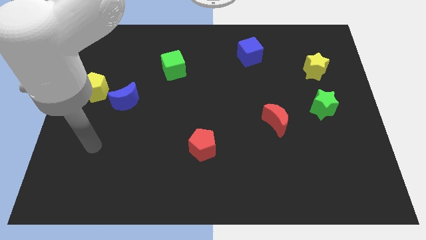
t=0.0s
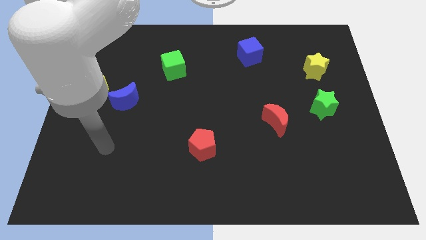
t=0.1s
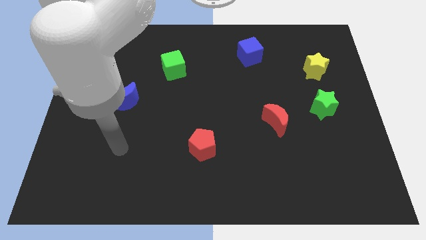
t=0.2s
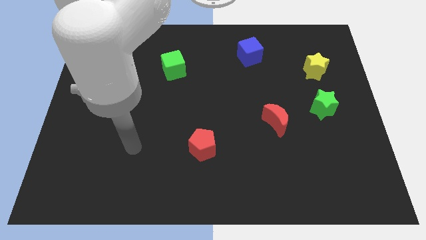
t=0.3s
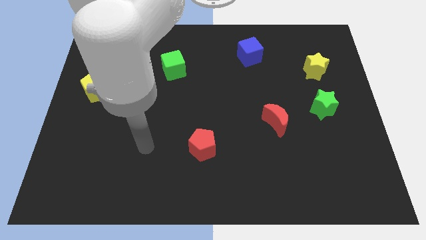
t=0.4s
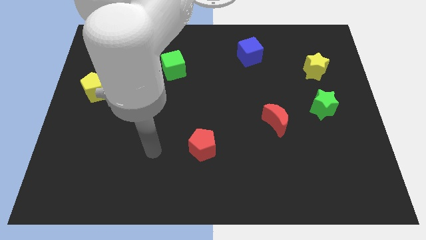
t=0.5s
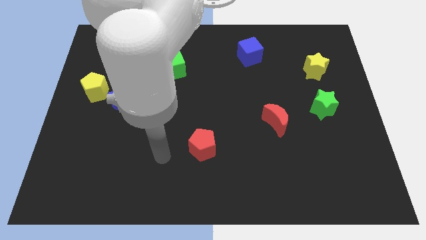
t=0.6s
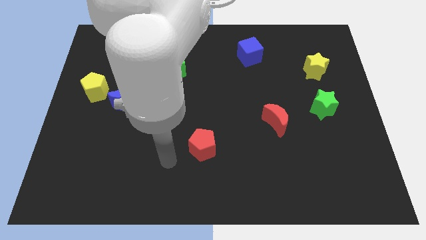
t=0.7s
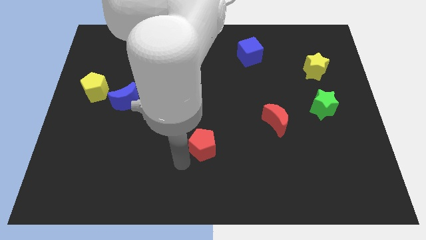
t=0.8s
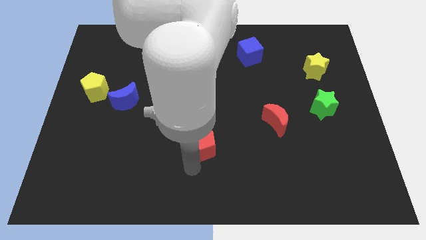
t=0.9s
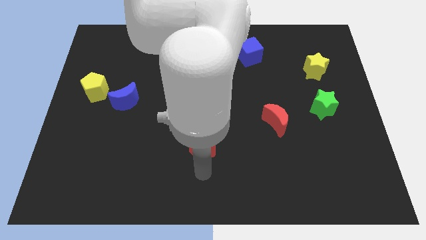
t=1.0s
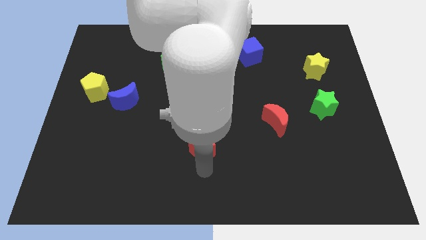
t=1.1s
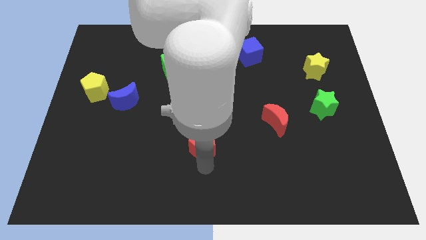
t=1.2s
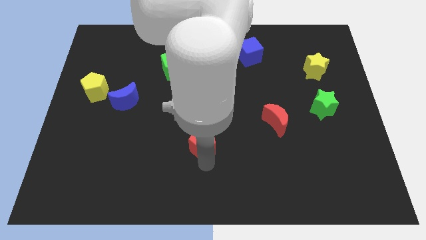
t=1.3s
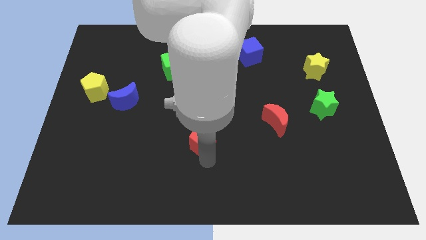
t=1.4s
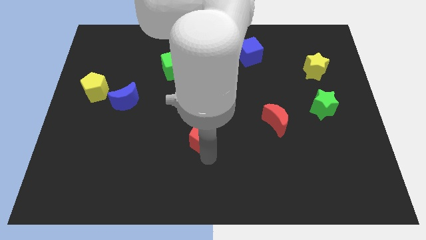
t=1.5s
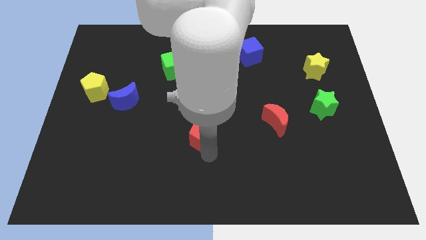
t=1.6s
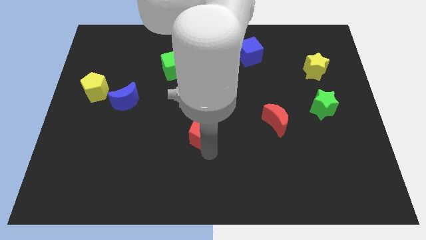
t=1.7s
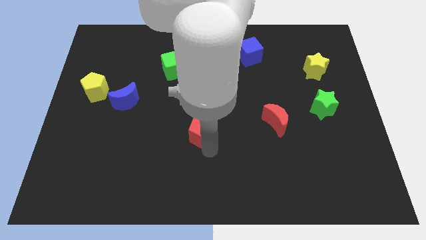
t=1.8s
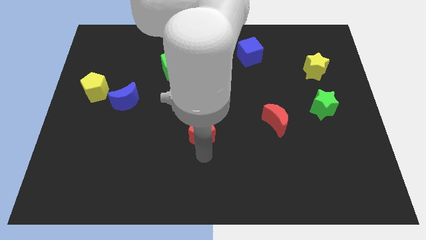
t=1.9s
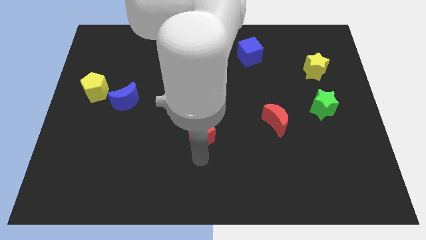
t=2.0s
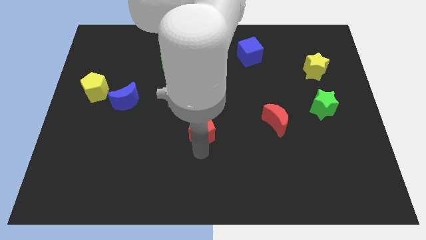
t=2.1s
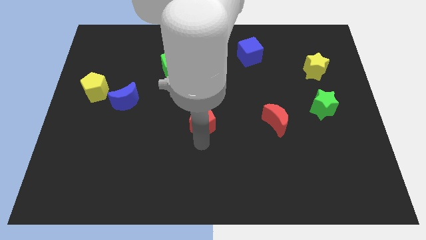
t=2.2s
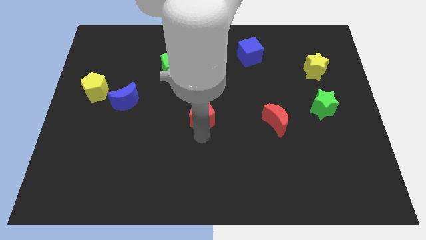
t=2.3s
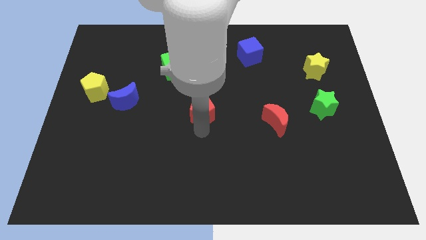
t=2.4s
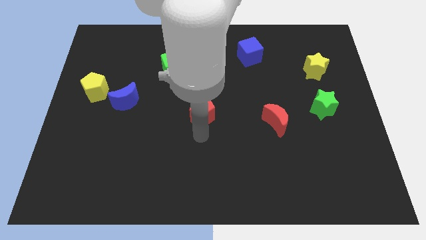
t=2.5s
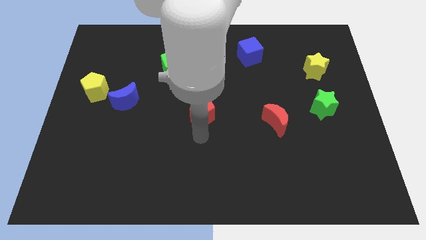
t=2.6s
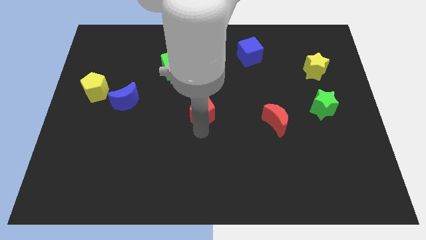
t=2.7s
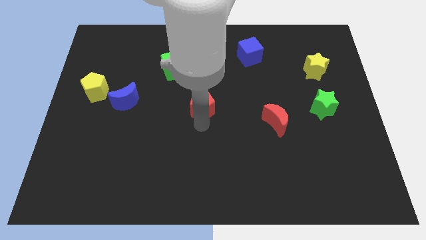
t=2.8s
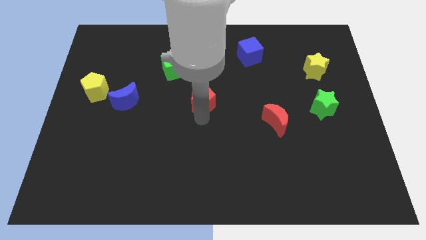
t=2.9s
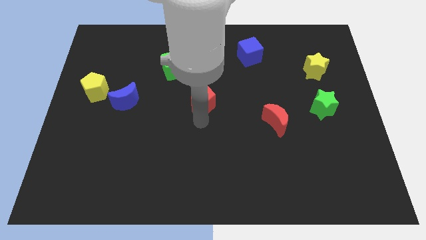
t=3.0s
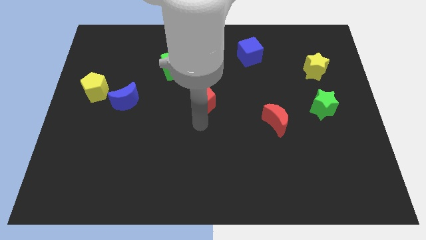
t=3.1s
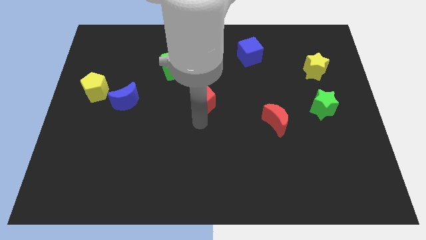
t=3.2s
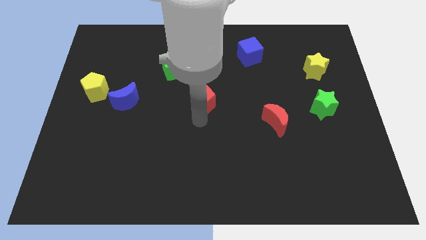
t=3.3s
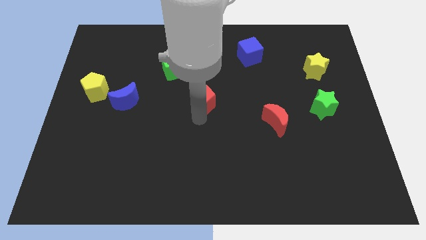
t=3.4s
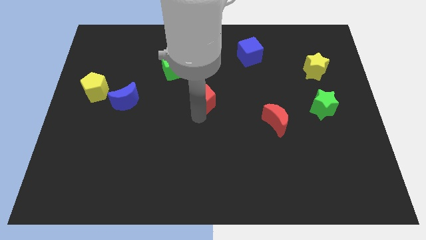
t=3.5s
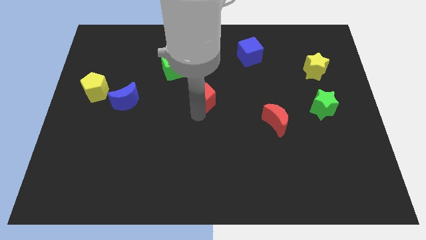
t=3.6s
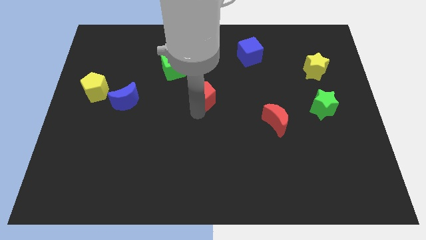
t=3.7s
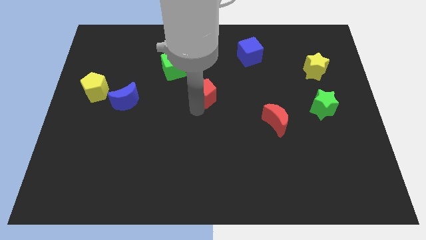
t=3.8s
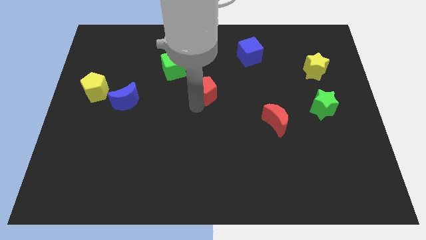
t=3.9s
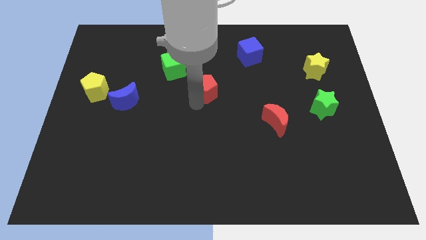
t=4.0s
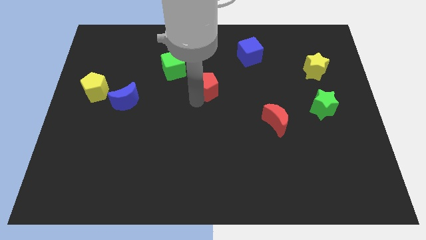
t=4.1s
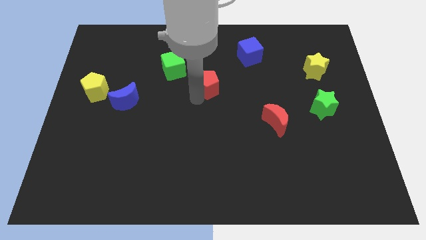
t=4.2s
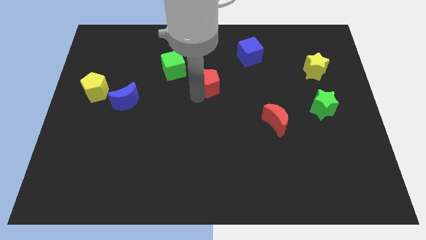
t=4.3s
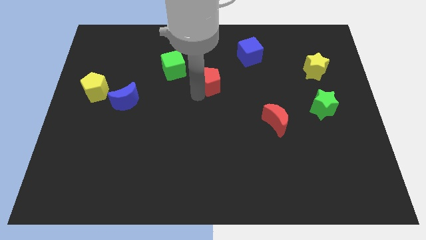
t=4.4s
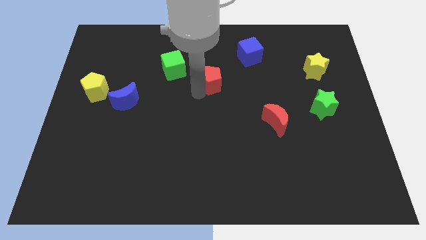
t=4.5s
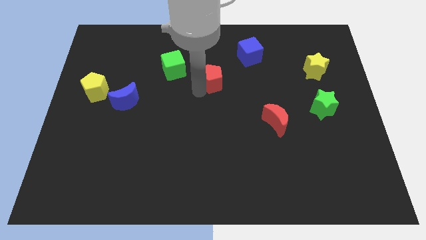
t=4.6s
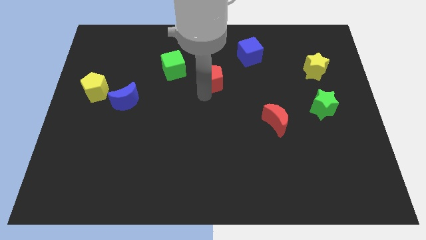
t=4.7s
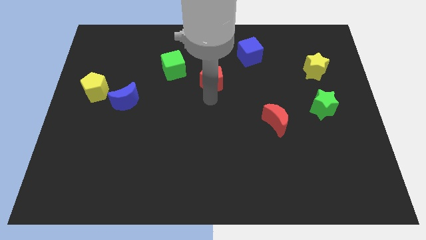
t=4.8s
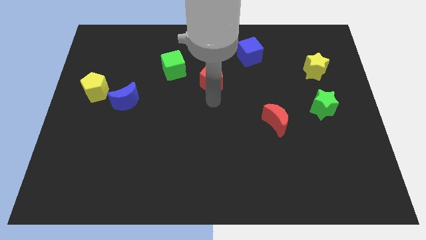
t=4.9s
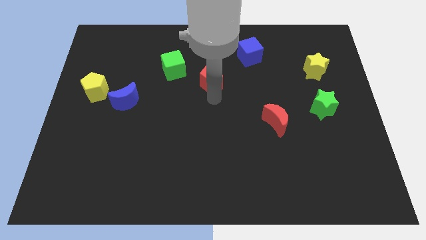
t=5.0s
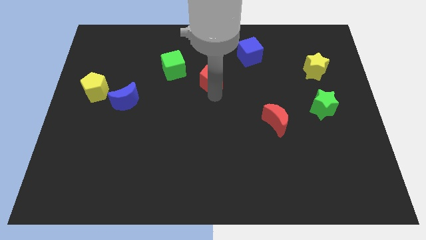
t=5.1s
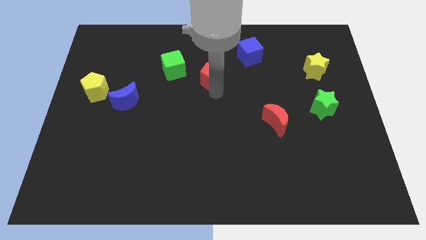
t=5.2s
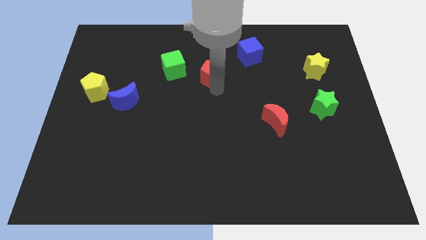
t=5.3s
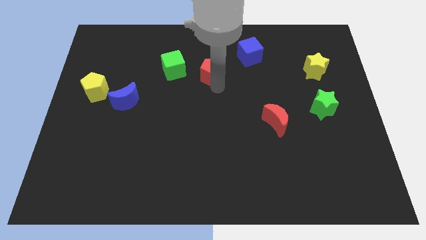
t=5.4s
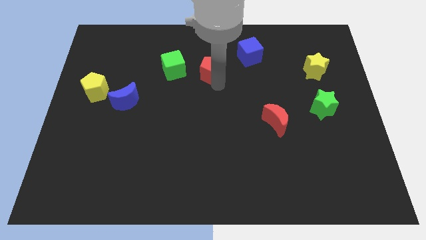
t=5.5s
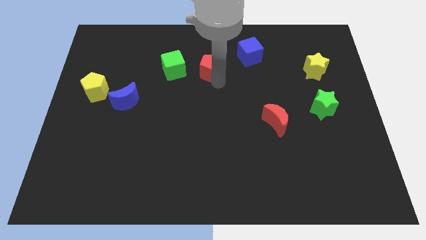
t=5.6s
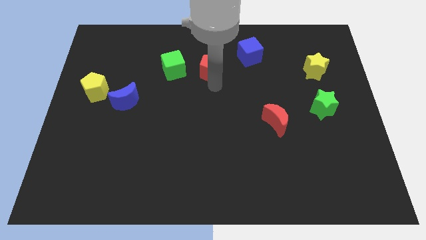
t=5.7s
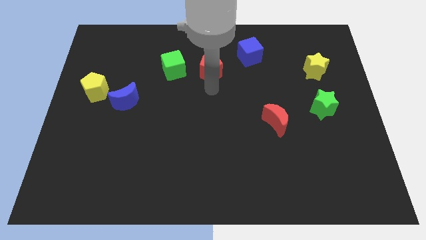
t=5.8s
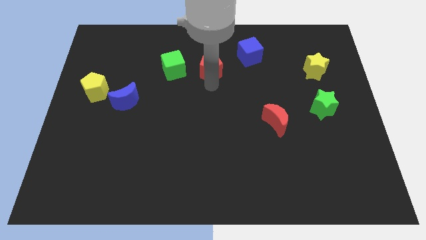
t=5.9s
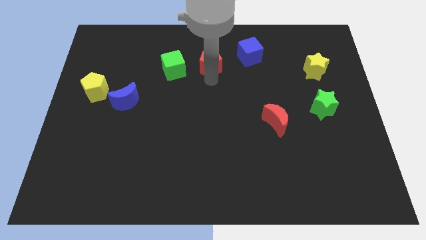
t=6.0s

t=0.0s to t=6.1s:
push the red pentagon just left of the blue cube

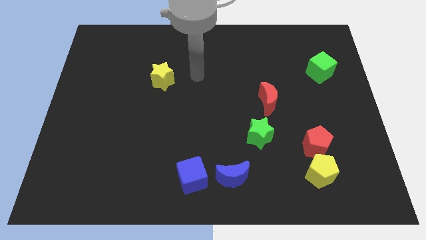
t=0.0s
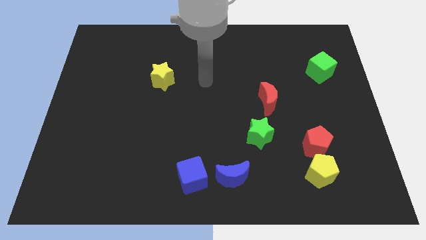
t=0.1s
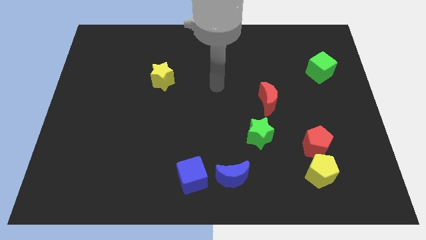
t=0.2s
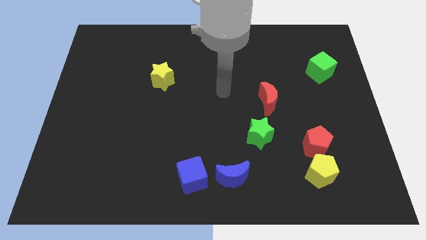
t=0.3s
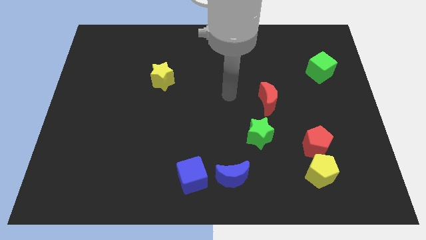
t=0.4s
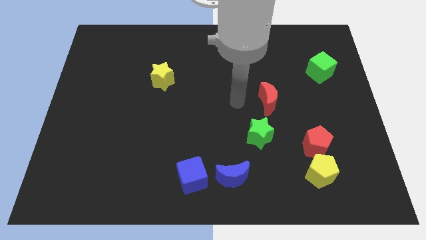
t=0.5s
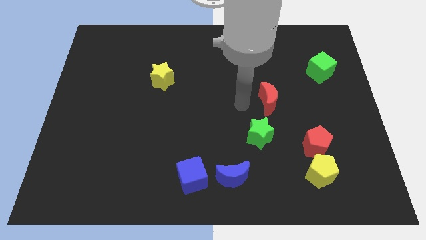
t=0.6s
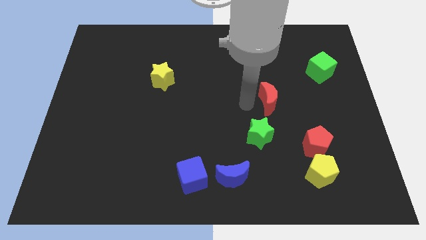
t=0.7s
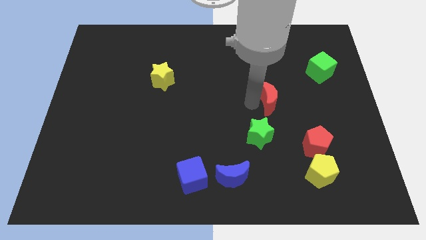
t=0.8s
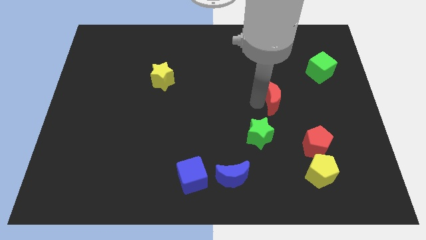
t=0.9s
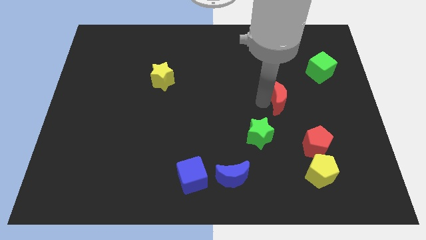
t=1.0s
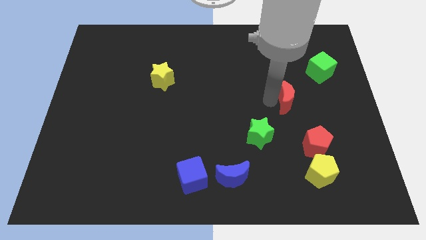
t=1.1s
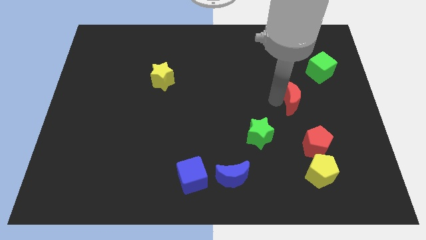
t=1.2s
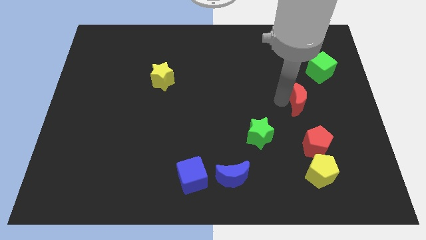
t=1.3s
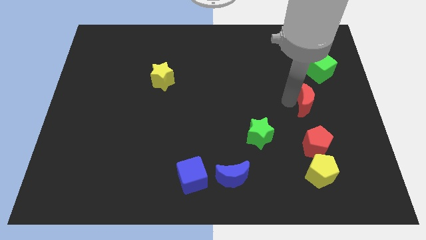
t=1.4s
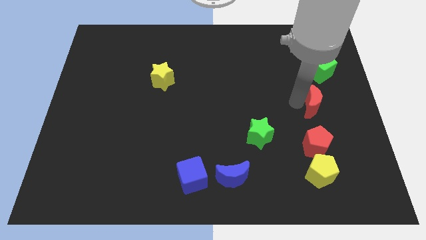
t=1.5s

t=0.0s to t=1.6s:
move the red moon to the bottom of the green cube
